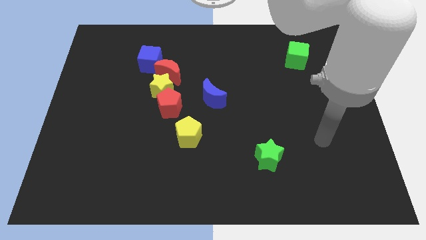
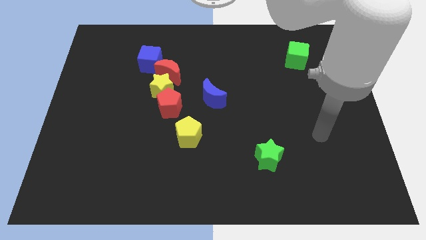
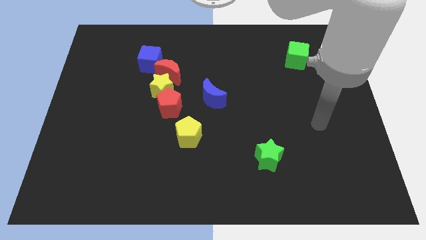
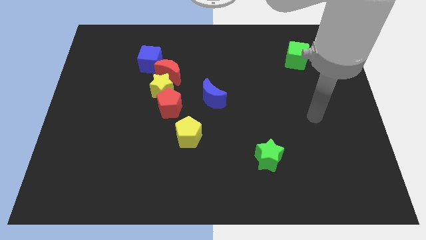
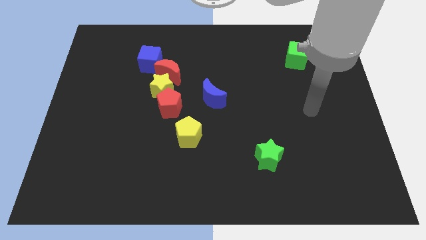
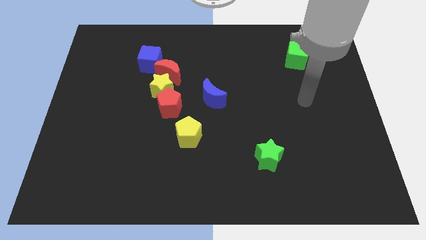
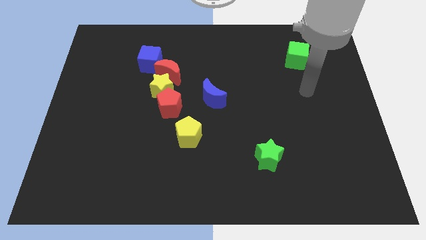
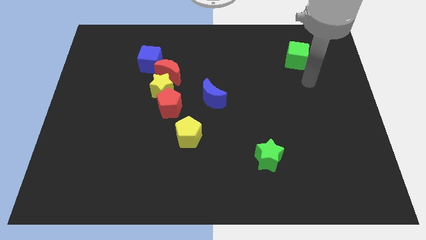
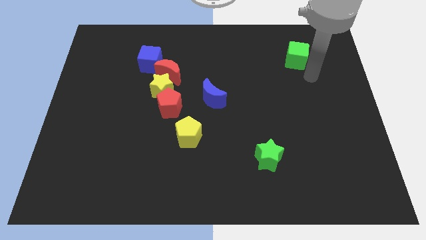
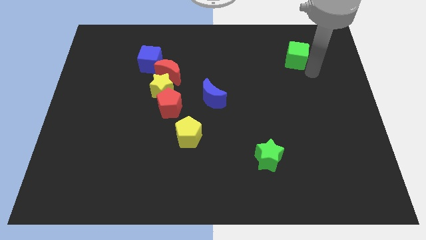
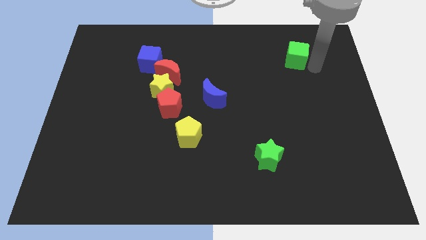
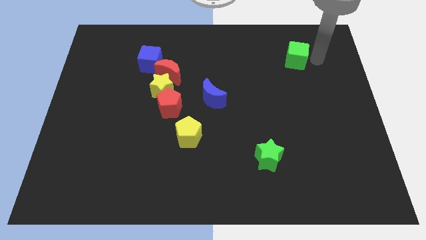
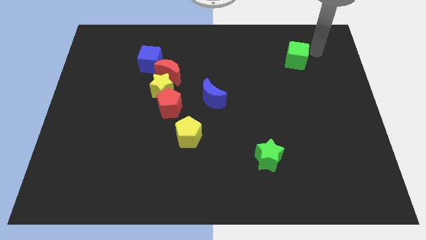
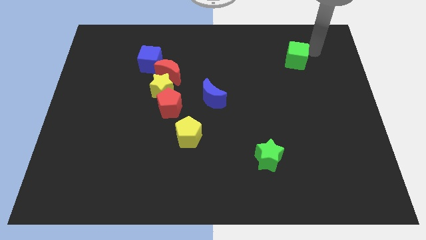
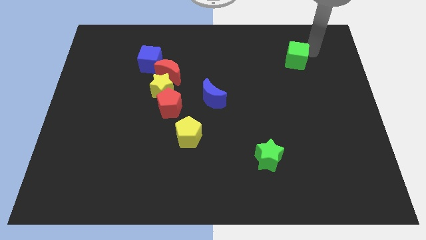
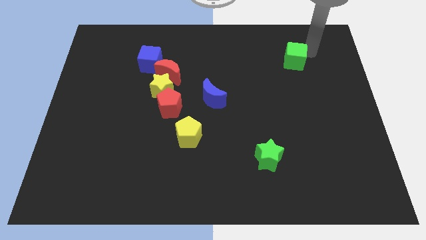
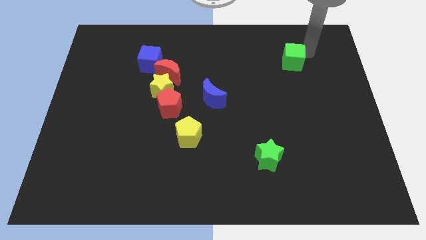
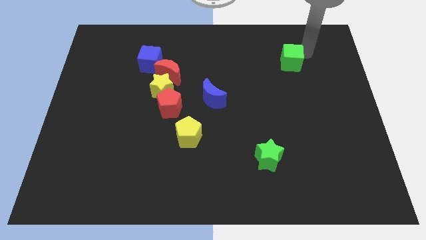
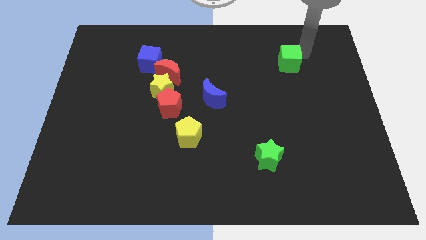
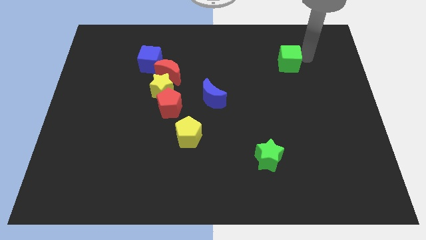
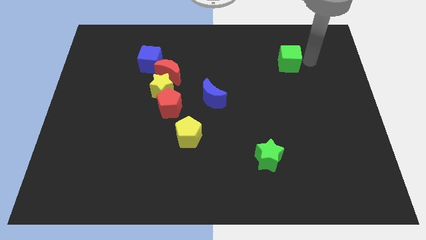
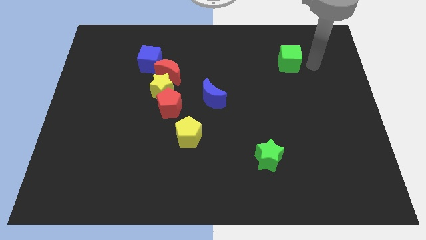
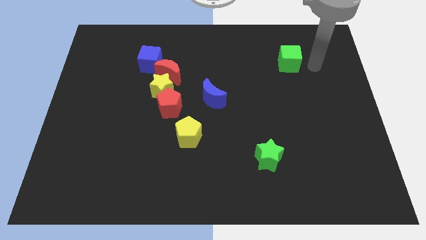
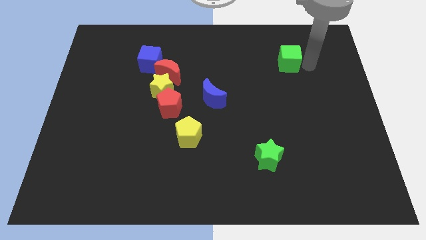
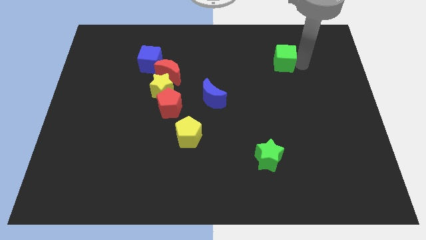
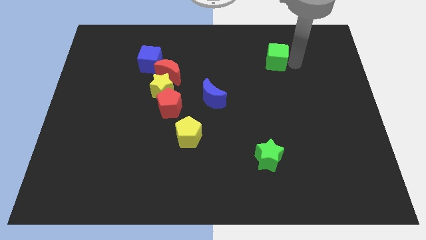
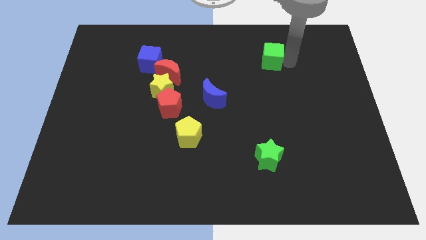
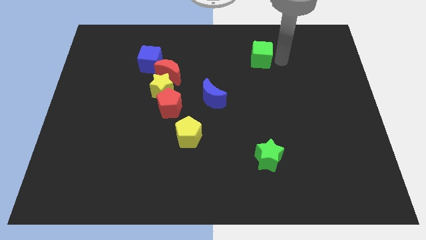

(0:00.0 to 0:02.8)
slightly push the green cube left

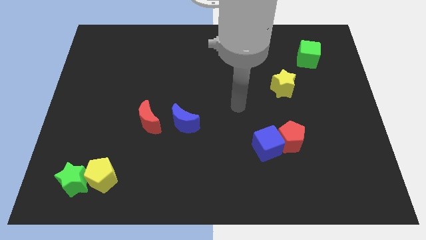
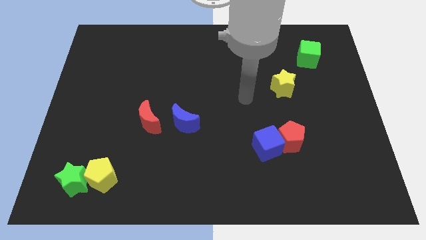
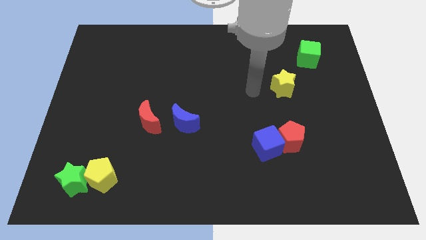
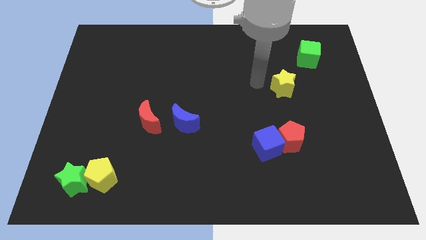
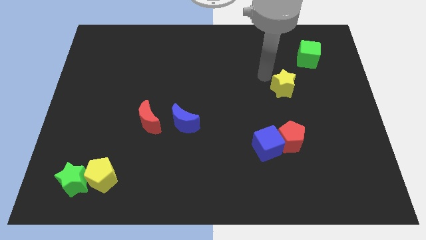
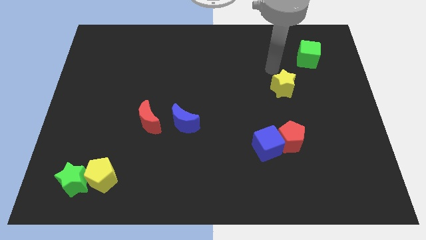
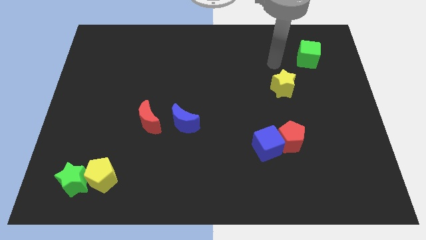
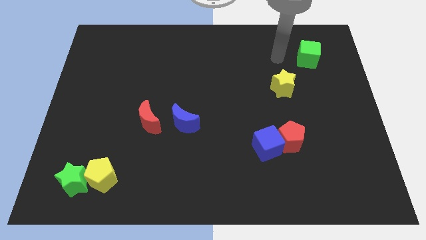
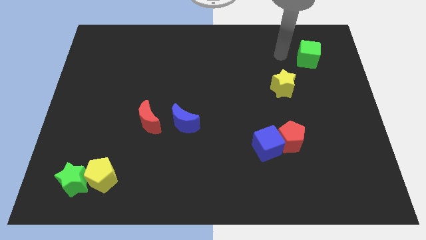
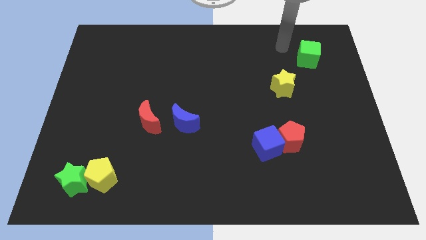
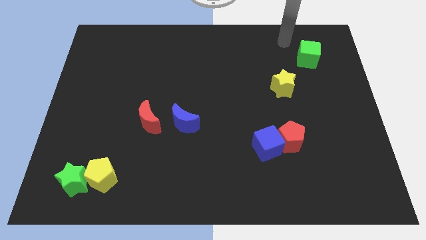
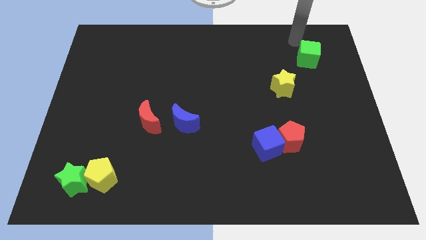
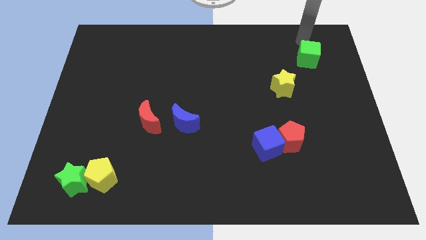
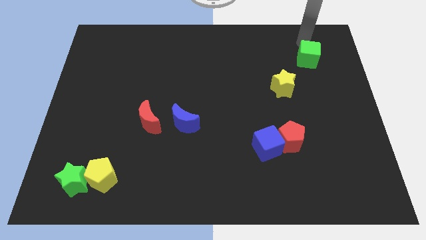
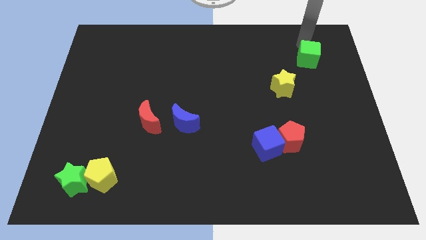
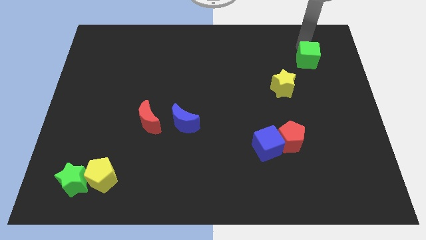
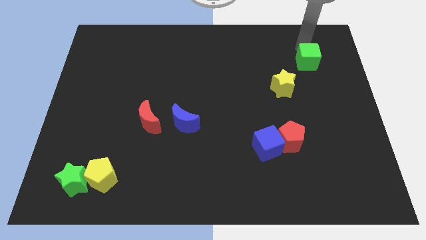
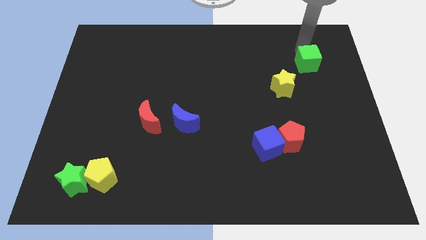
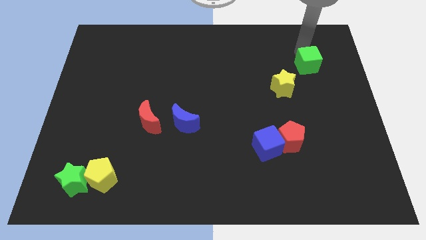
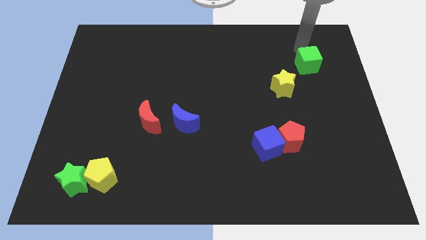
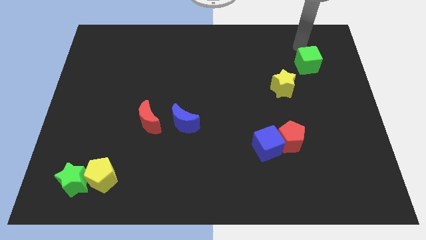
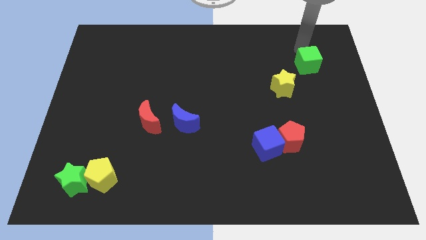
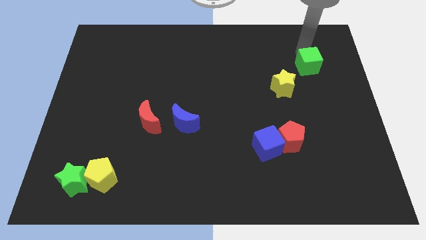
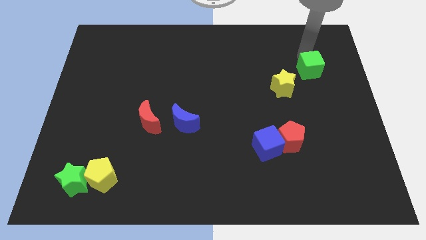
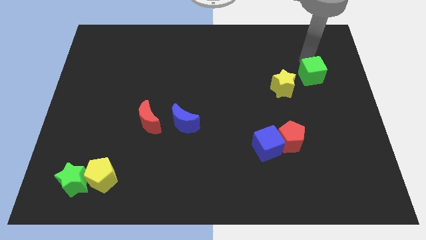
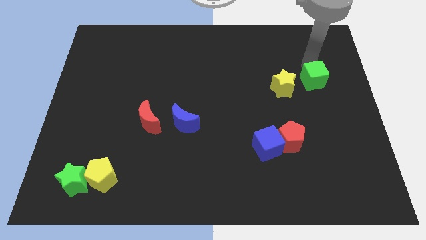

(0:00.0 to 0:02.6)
move the green cube somewhat down

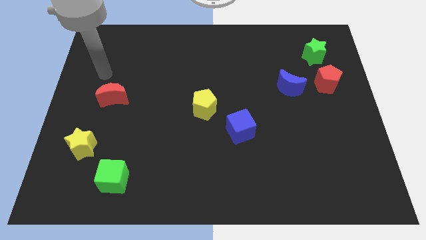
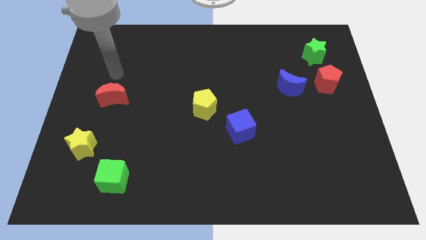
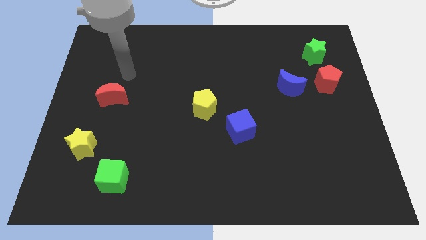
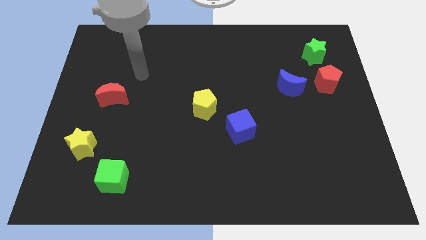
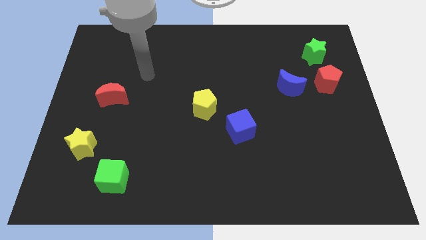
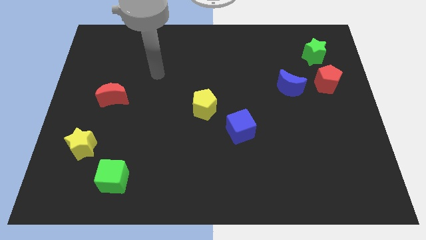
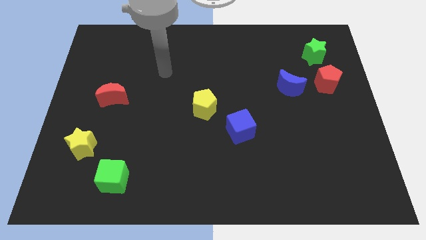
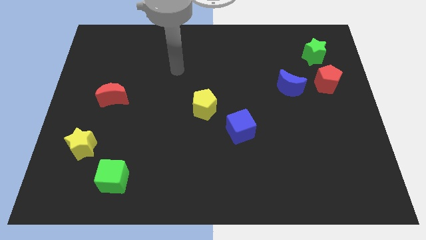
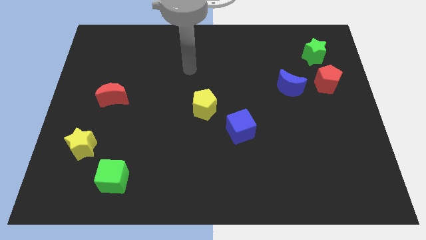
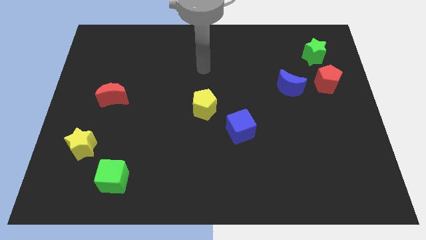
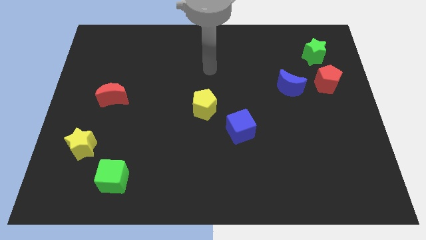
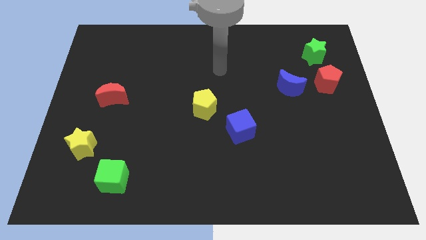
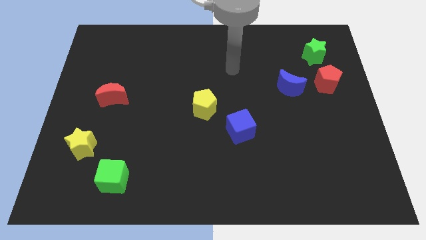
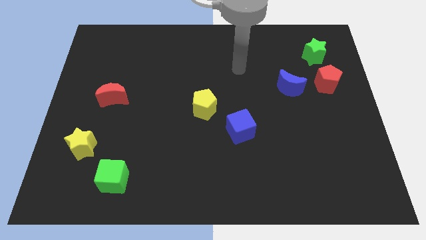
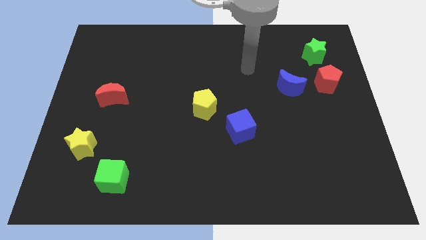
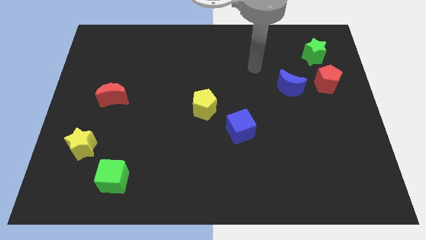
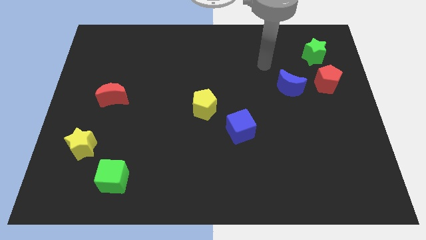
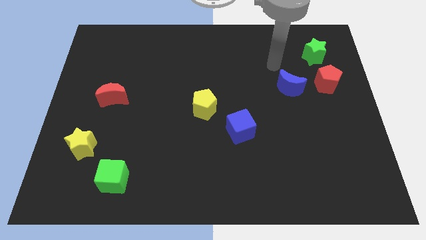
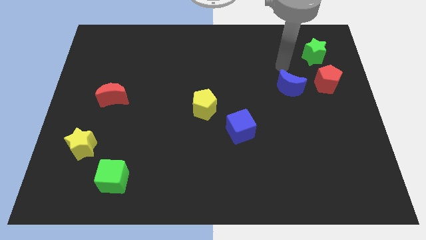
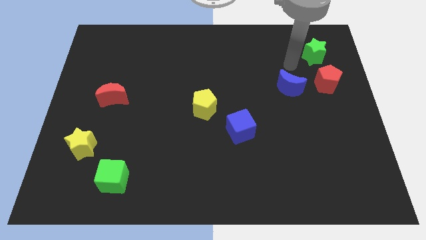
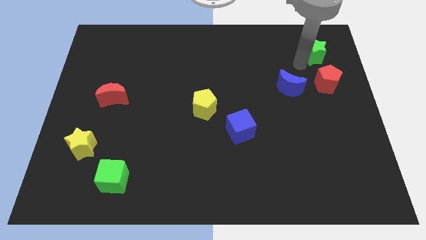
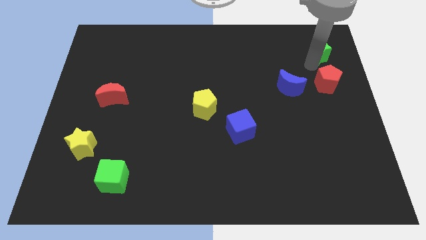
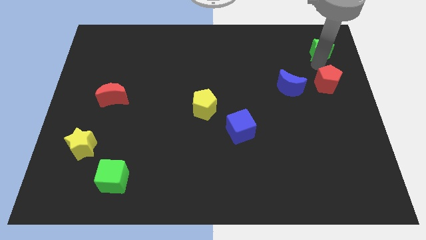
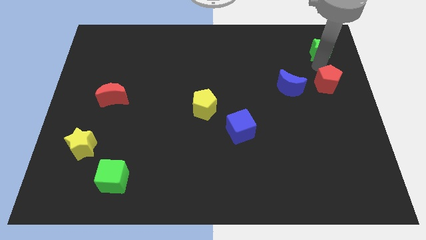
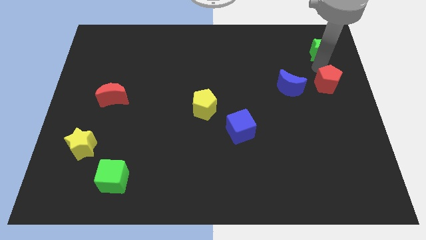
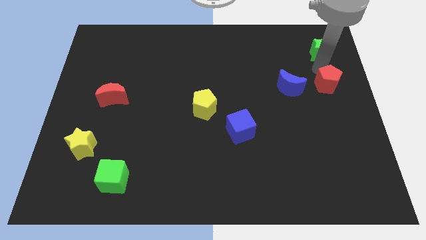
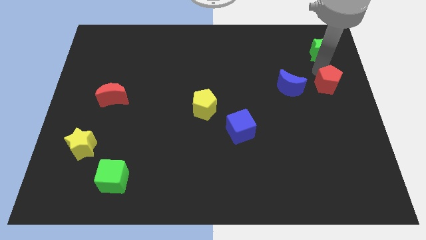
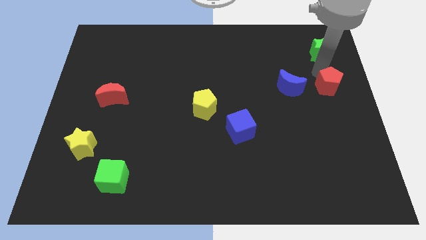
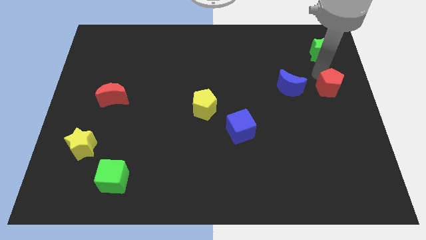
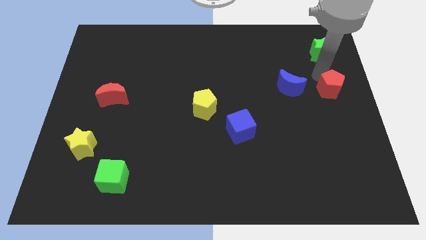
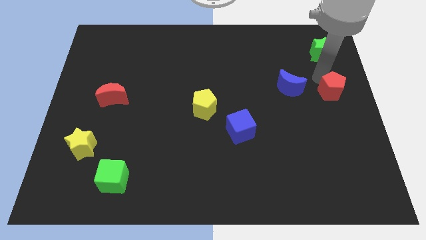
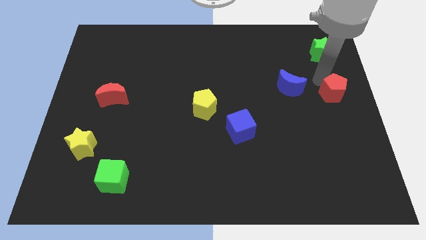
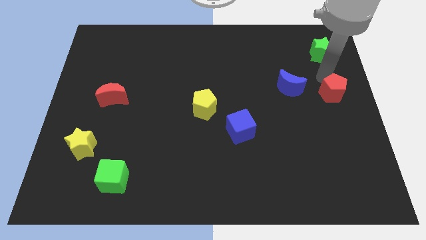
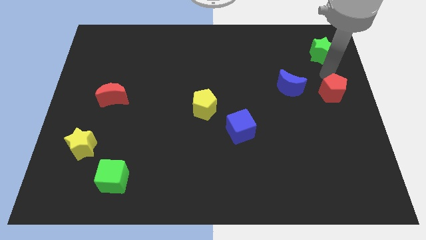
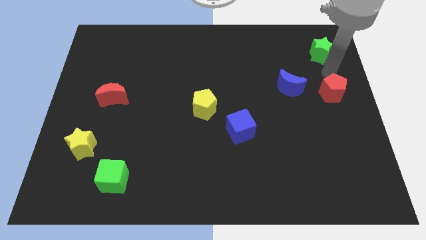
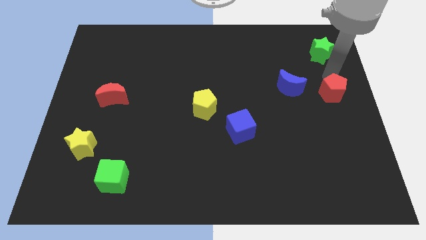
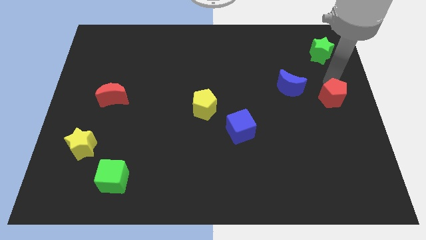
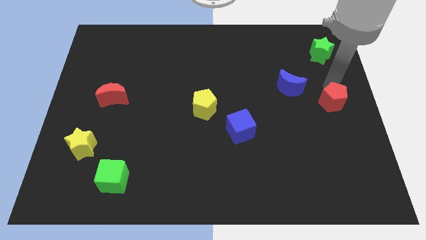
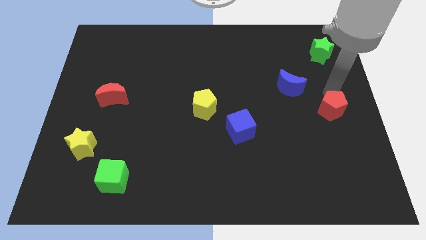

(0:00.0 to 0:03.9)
push the red pentagon somewhat down
